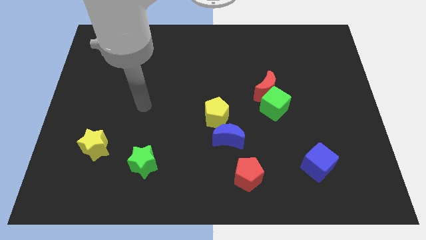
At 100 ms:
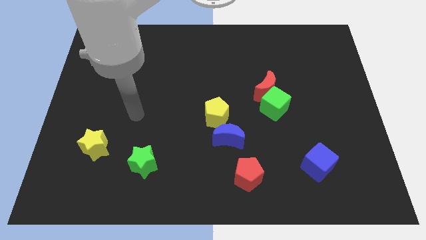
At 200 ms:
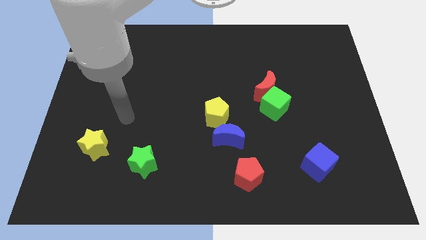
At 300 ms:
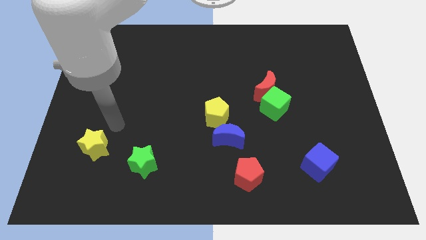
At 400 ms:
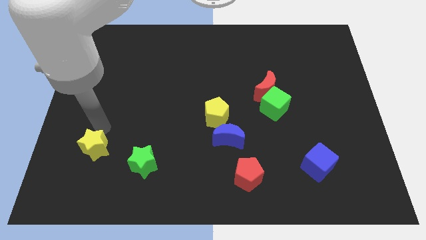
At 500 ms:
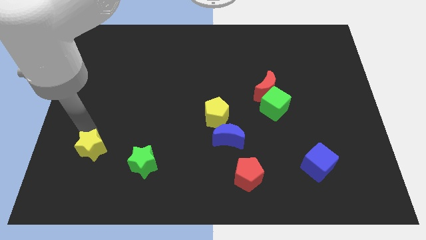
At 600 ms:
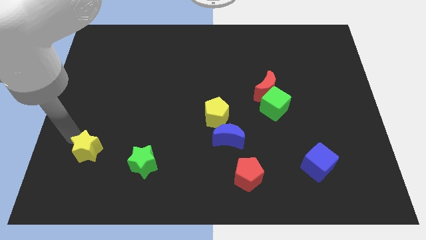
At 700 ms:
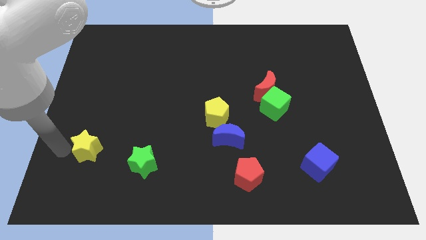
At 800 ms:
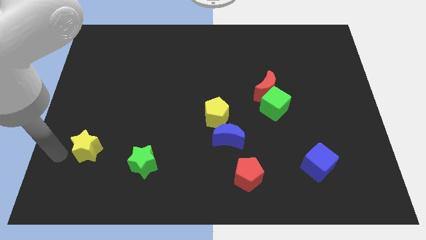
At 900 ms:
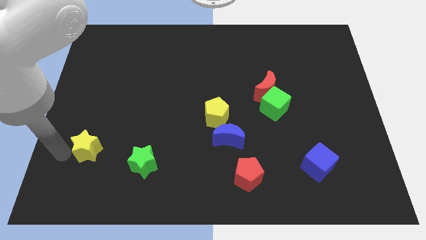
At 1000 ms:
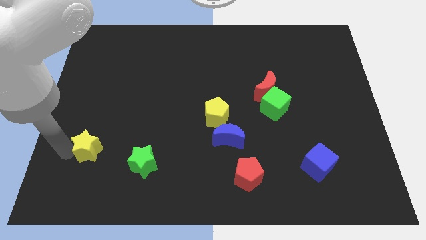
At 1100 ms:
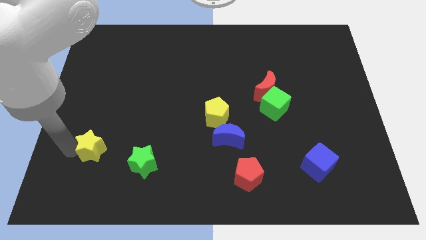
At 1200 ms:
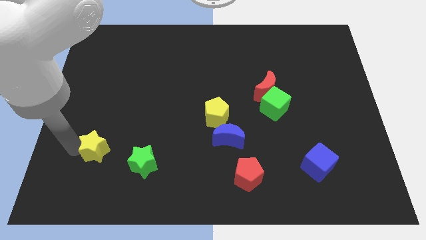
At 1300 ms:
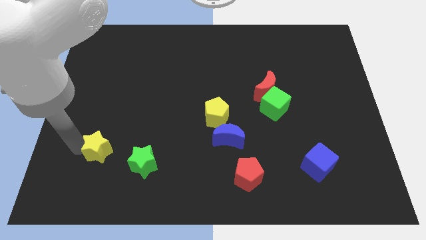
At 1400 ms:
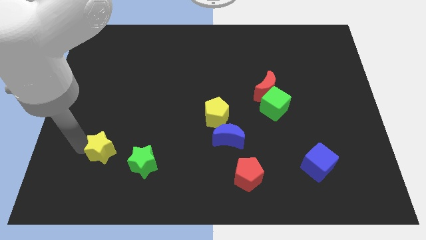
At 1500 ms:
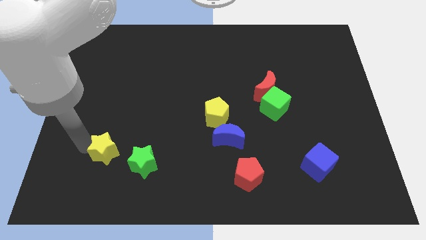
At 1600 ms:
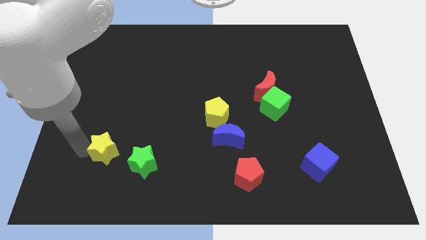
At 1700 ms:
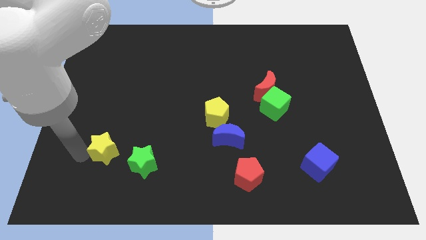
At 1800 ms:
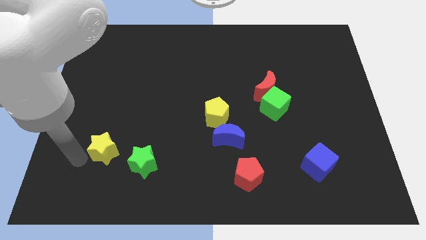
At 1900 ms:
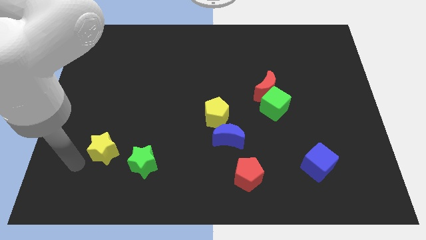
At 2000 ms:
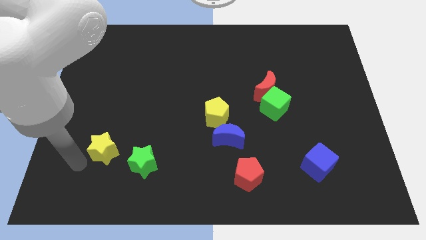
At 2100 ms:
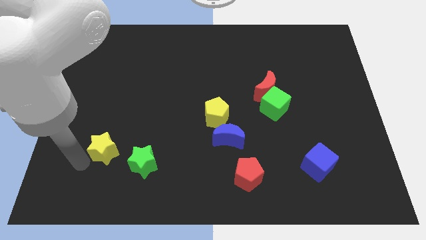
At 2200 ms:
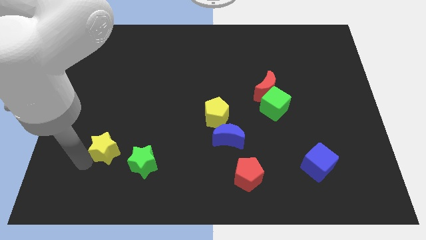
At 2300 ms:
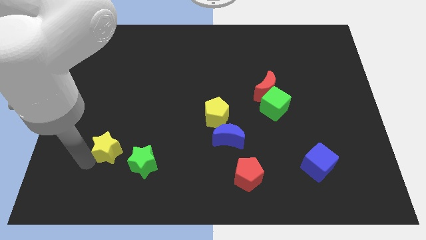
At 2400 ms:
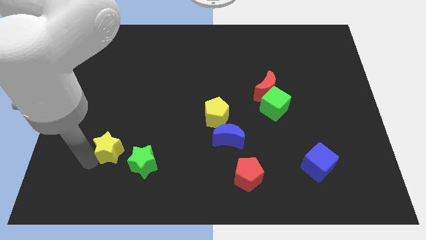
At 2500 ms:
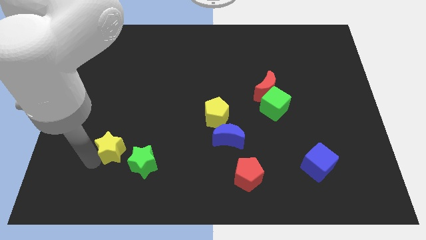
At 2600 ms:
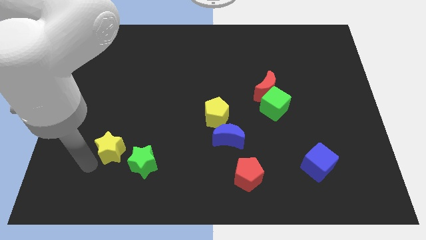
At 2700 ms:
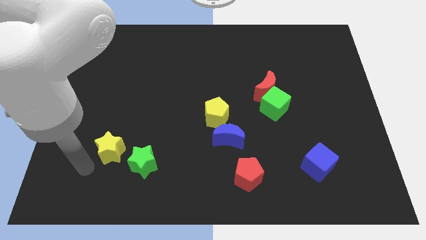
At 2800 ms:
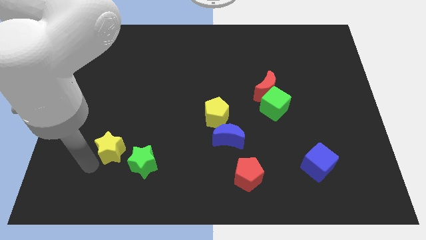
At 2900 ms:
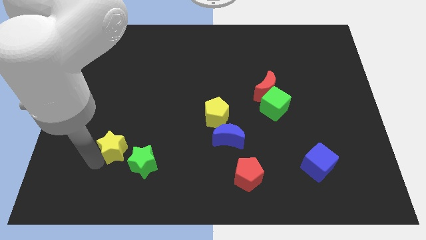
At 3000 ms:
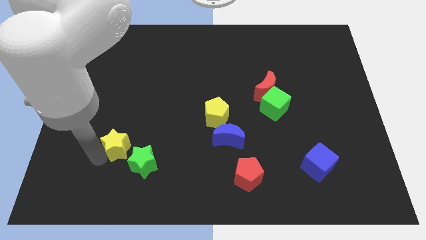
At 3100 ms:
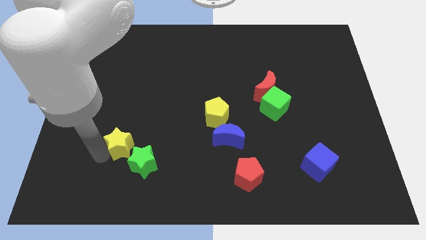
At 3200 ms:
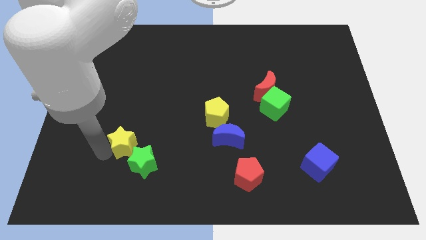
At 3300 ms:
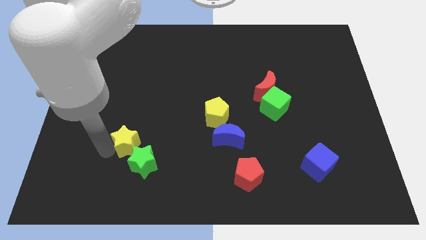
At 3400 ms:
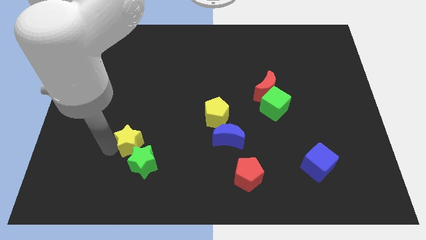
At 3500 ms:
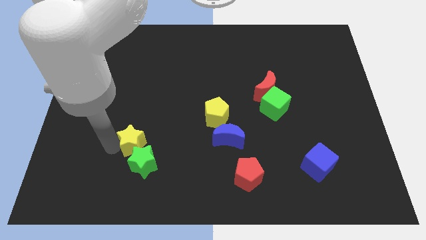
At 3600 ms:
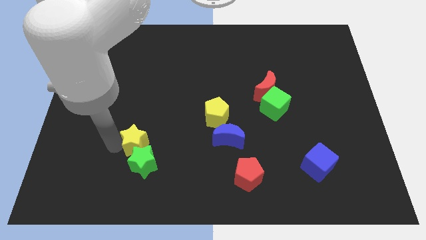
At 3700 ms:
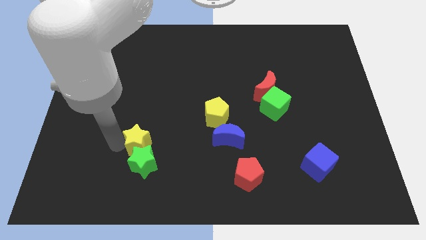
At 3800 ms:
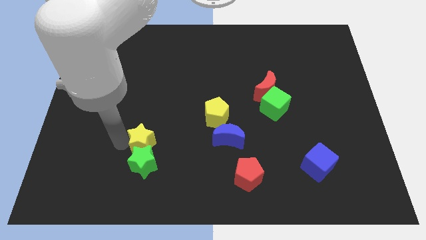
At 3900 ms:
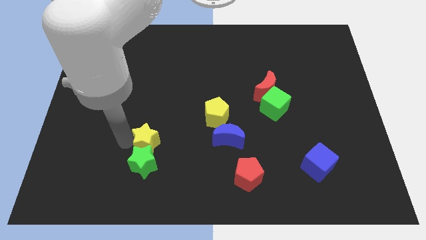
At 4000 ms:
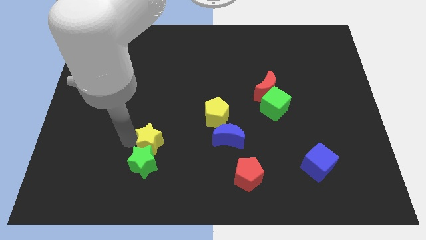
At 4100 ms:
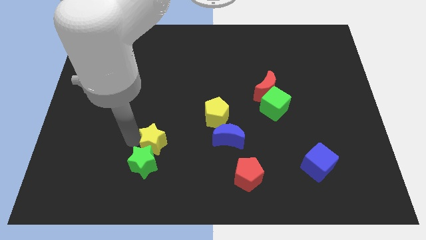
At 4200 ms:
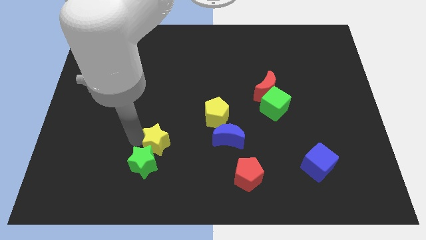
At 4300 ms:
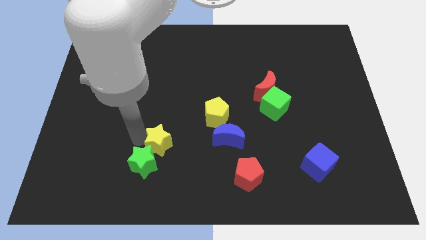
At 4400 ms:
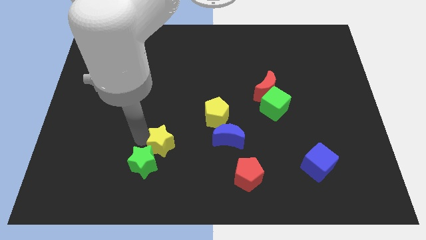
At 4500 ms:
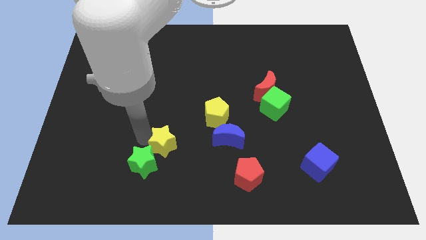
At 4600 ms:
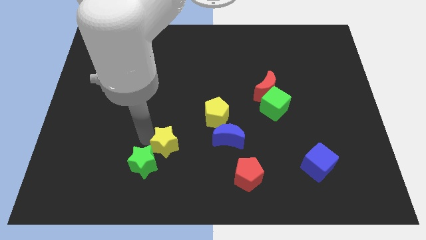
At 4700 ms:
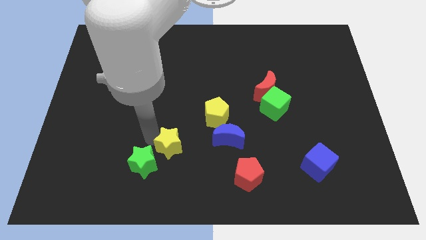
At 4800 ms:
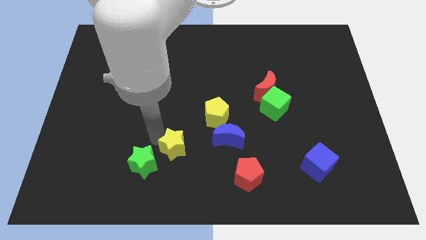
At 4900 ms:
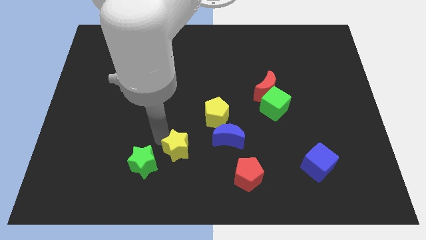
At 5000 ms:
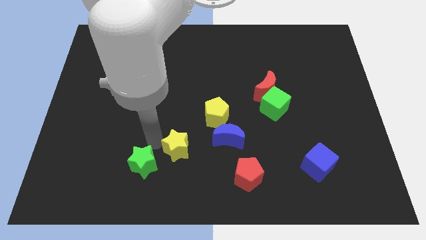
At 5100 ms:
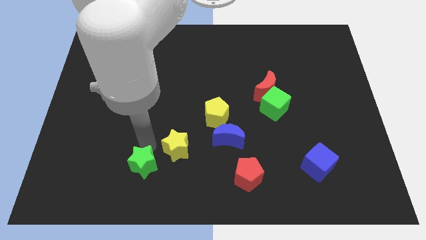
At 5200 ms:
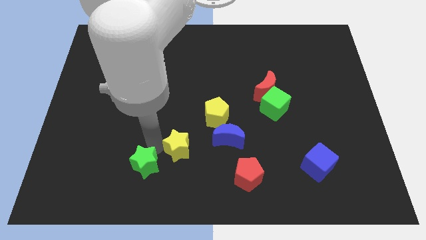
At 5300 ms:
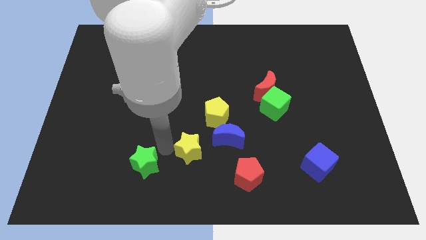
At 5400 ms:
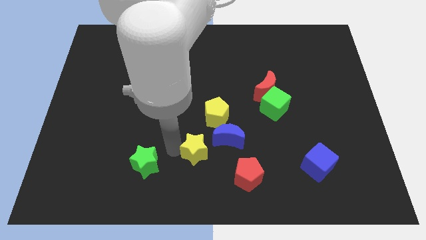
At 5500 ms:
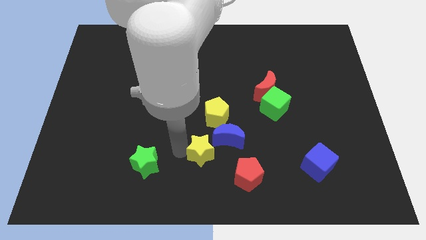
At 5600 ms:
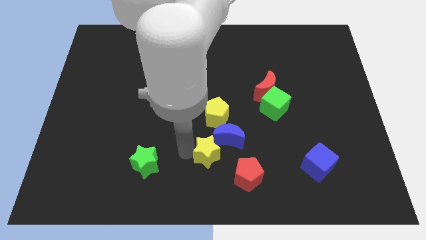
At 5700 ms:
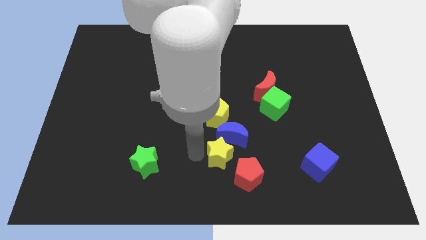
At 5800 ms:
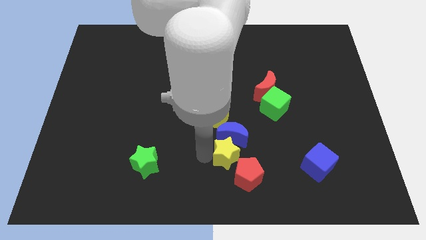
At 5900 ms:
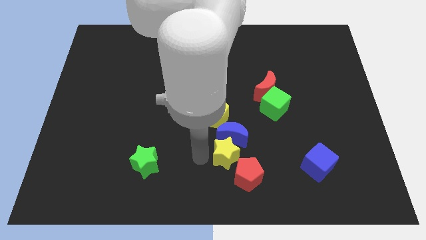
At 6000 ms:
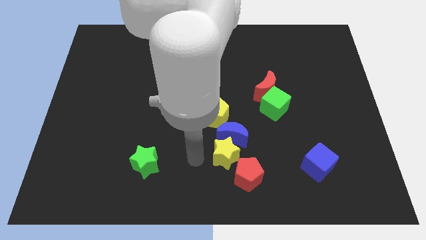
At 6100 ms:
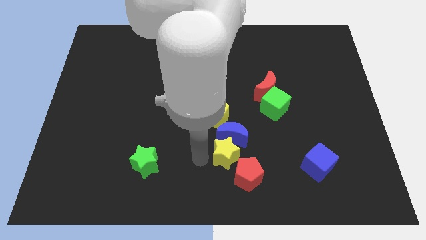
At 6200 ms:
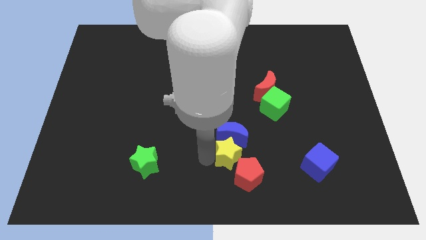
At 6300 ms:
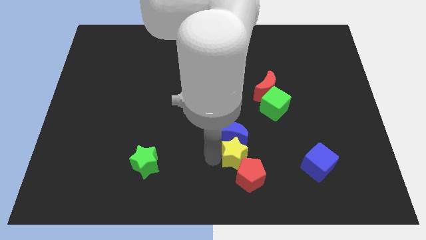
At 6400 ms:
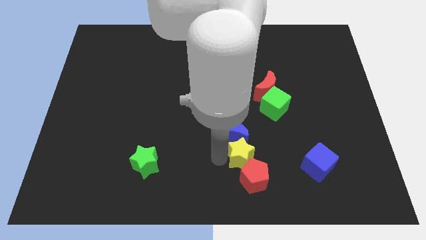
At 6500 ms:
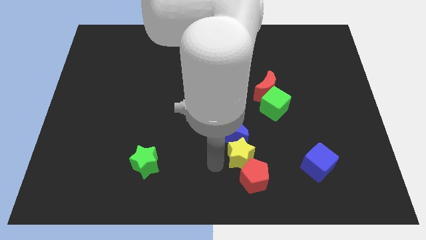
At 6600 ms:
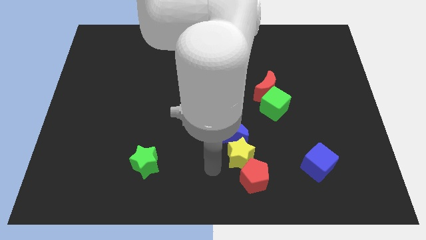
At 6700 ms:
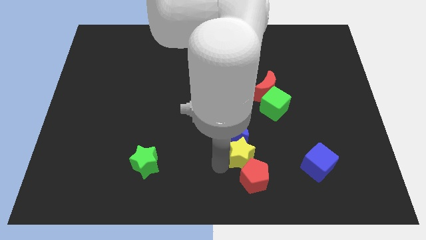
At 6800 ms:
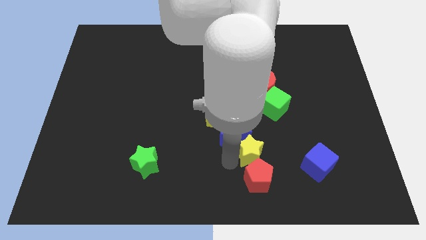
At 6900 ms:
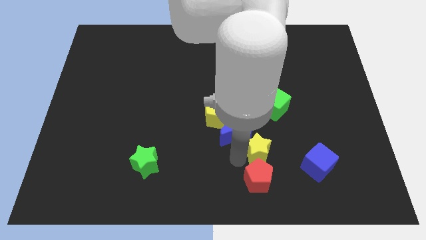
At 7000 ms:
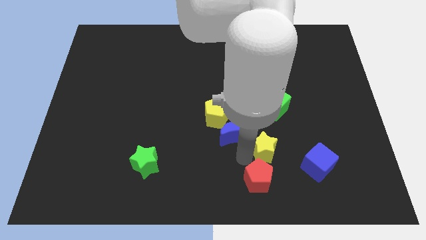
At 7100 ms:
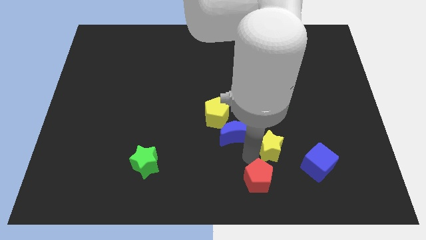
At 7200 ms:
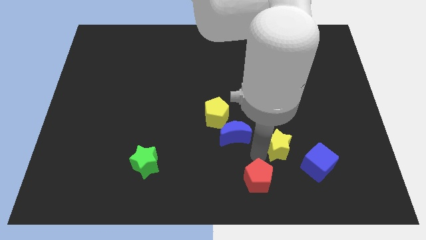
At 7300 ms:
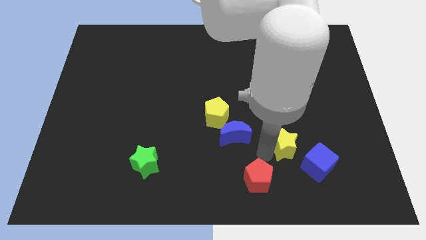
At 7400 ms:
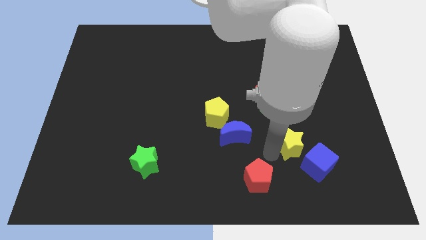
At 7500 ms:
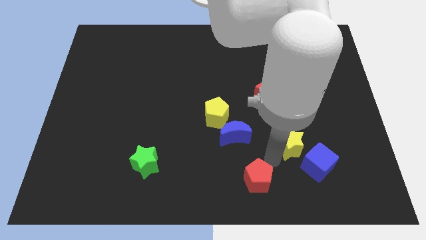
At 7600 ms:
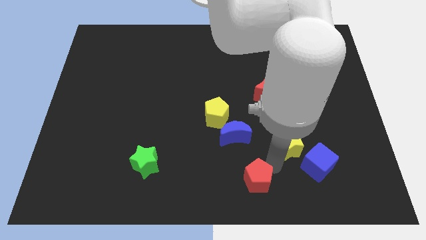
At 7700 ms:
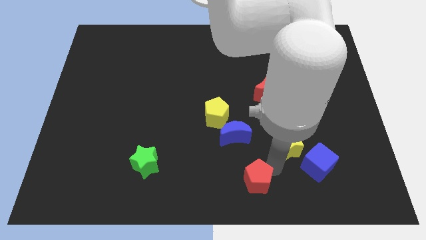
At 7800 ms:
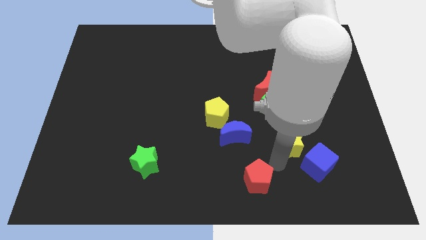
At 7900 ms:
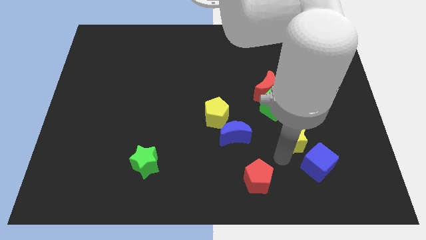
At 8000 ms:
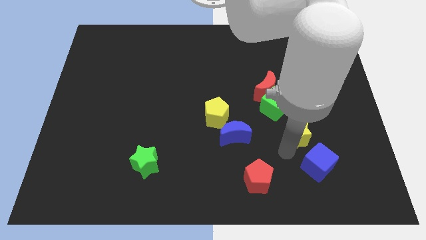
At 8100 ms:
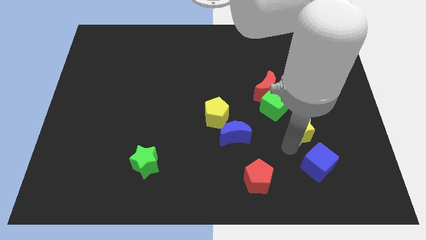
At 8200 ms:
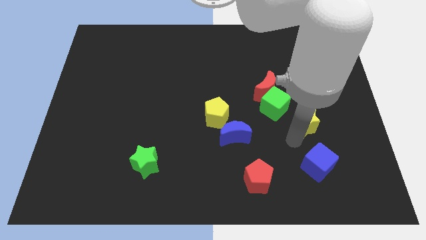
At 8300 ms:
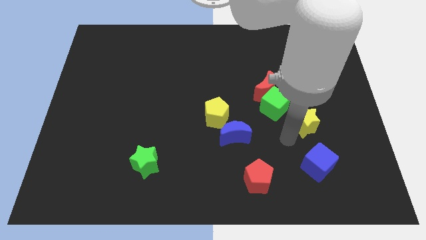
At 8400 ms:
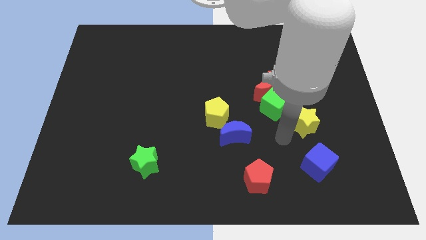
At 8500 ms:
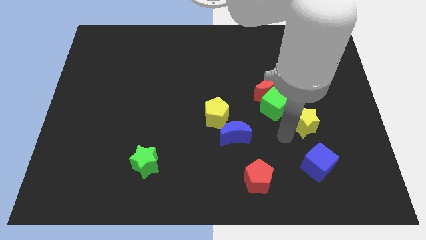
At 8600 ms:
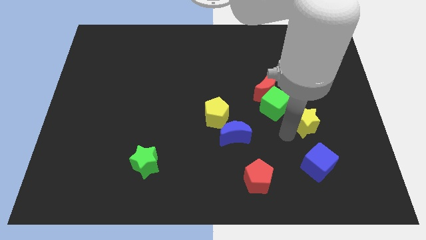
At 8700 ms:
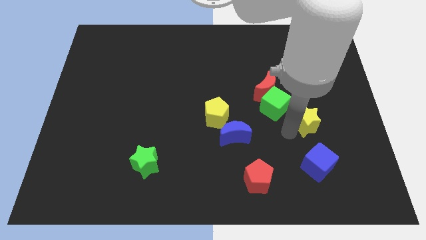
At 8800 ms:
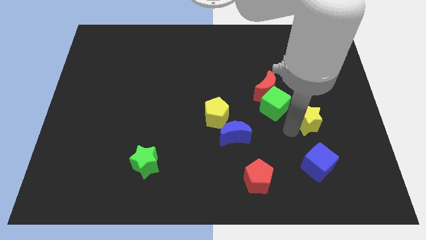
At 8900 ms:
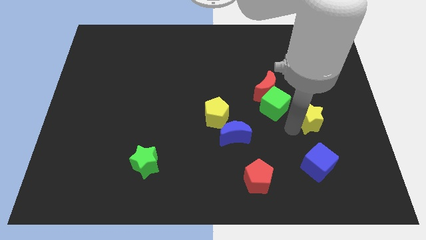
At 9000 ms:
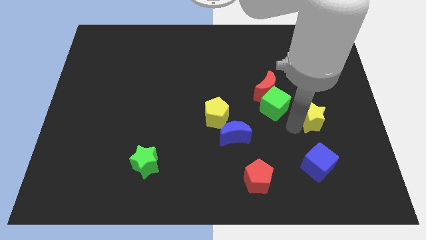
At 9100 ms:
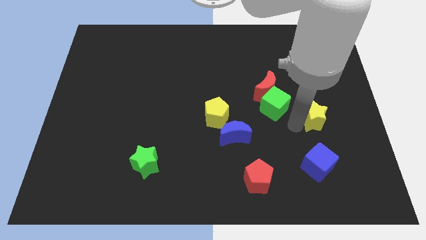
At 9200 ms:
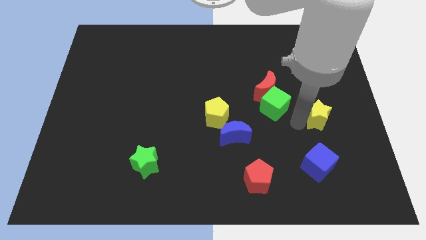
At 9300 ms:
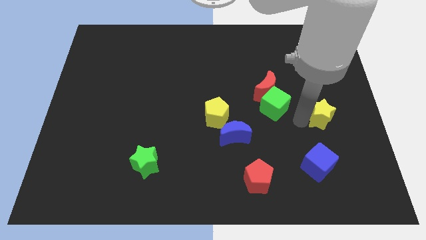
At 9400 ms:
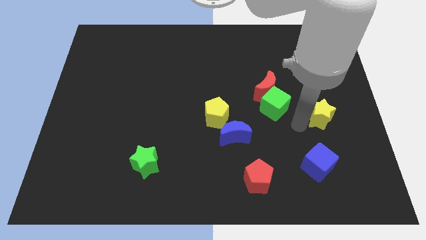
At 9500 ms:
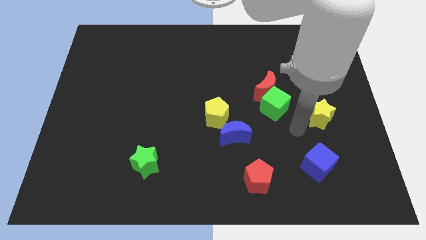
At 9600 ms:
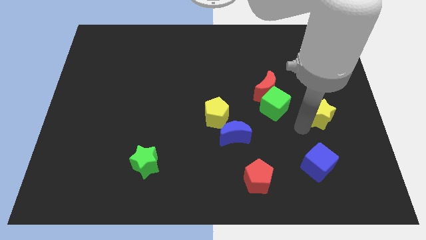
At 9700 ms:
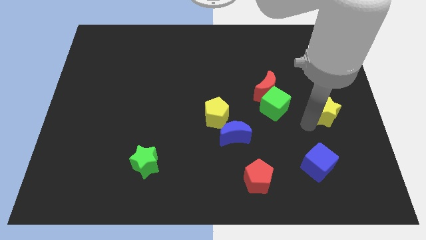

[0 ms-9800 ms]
push the yellow star to the right side of the board
